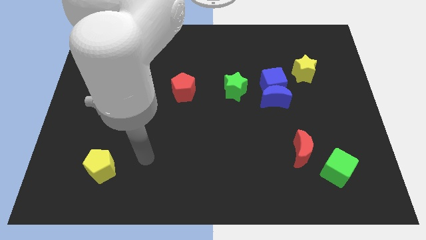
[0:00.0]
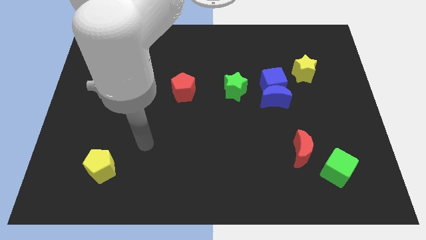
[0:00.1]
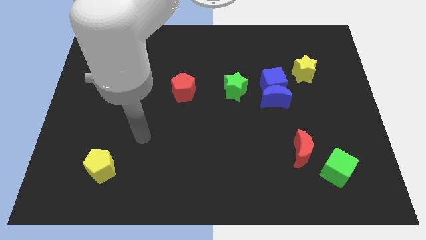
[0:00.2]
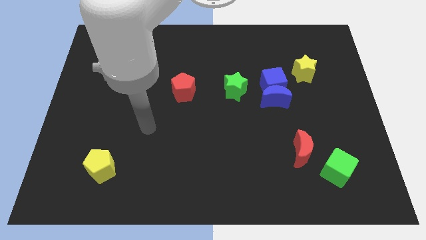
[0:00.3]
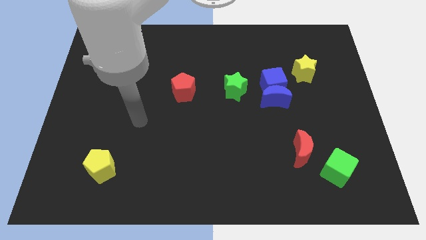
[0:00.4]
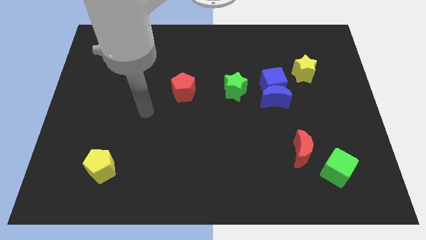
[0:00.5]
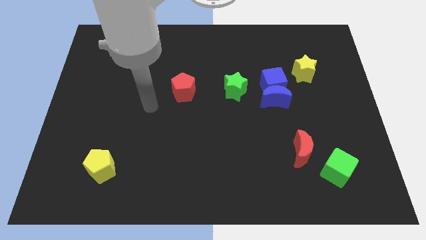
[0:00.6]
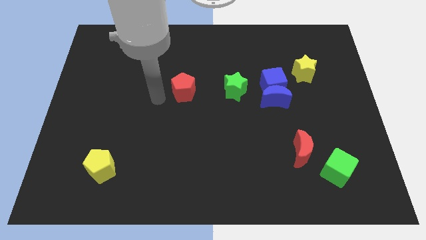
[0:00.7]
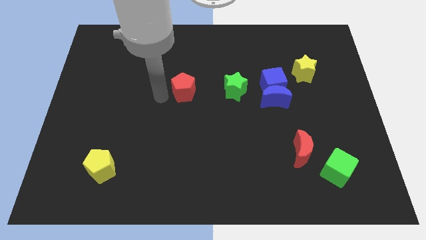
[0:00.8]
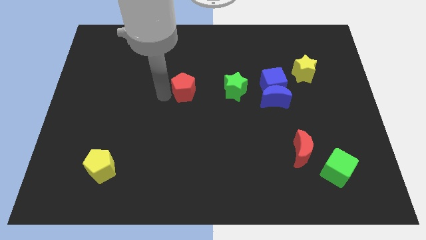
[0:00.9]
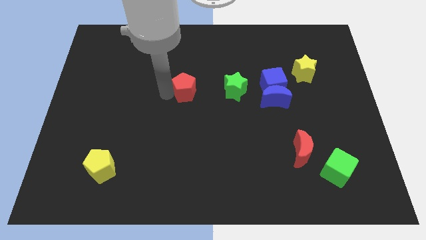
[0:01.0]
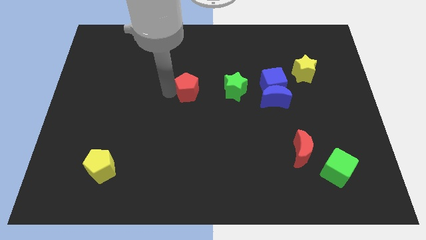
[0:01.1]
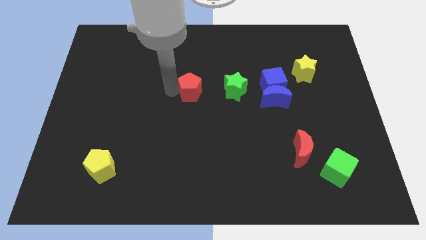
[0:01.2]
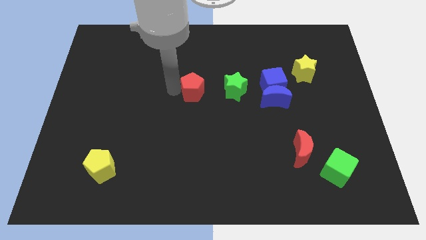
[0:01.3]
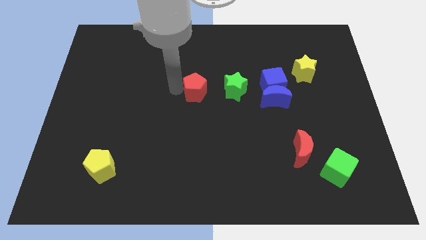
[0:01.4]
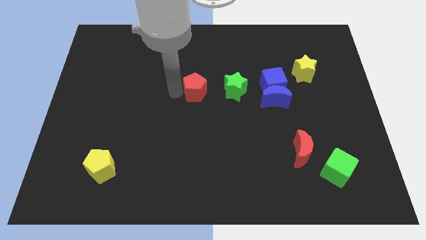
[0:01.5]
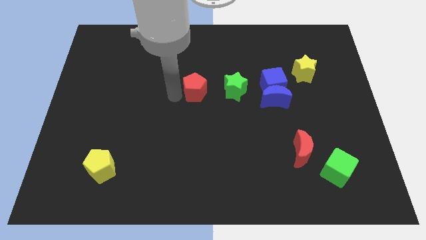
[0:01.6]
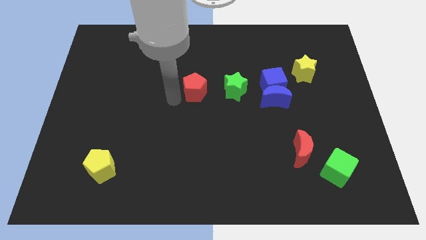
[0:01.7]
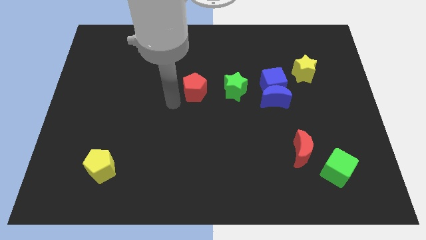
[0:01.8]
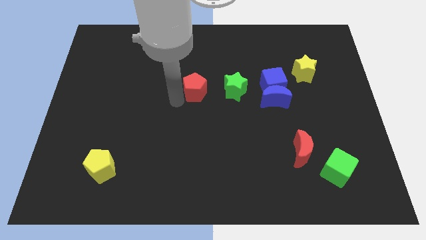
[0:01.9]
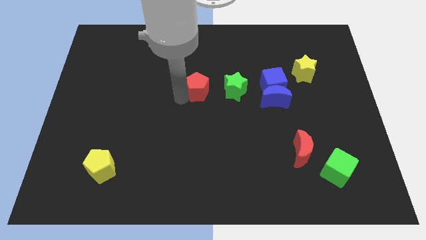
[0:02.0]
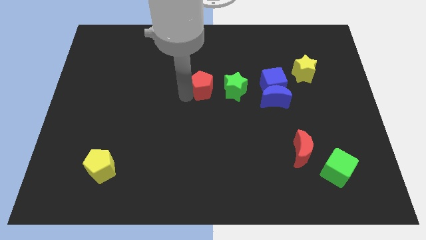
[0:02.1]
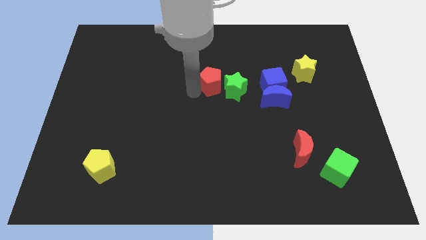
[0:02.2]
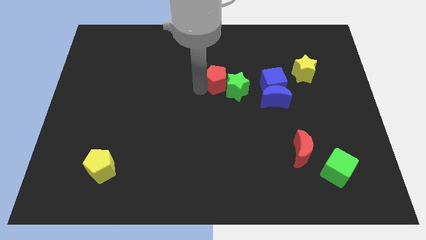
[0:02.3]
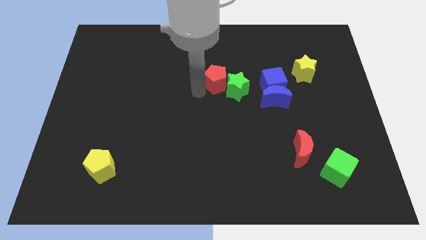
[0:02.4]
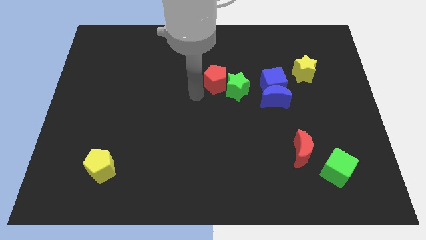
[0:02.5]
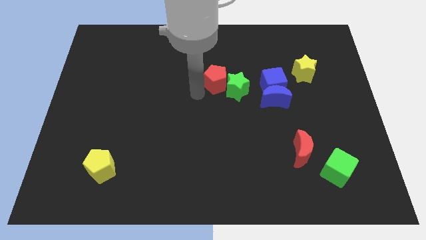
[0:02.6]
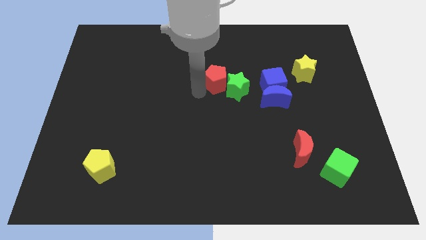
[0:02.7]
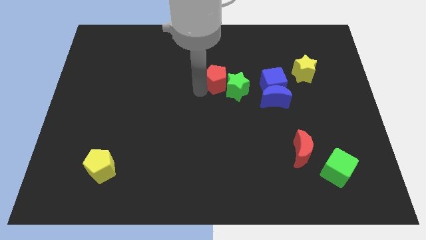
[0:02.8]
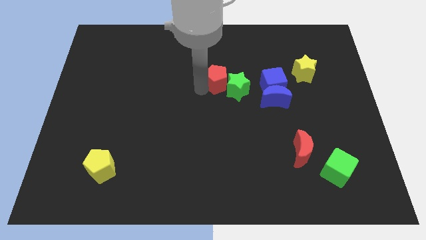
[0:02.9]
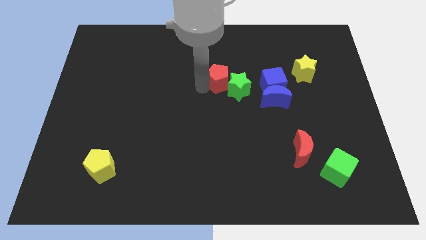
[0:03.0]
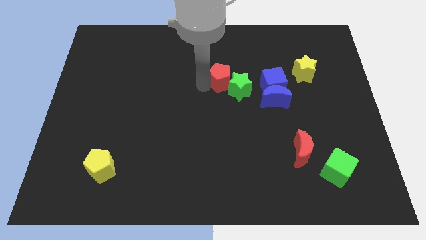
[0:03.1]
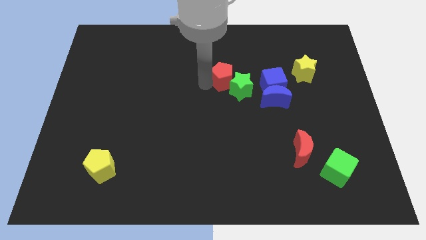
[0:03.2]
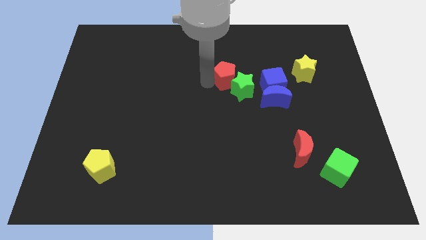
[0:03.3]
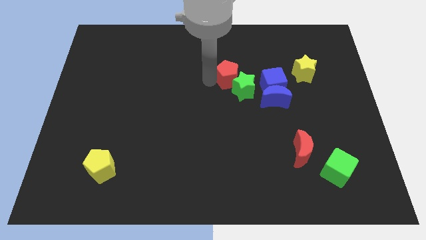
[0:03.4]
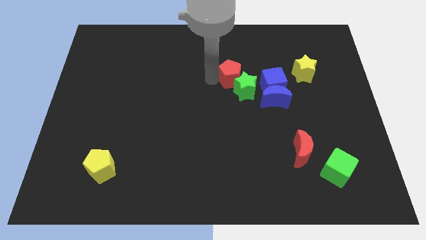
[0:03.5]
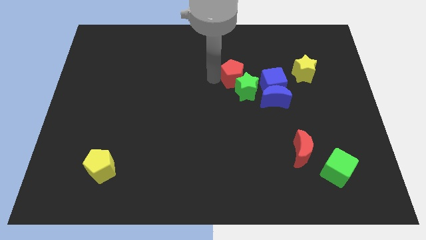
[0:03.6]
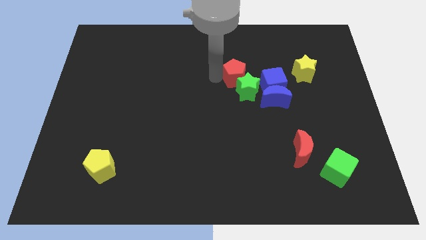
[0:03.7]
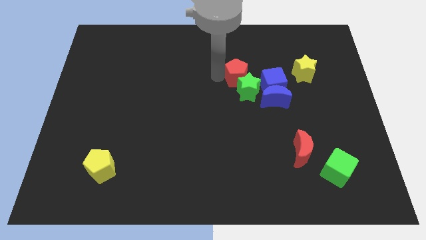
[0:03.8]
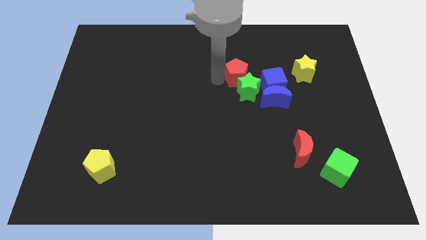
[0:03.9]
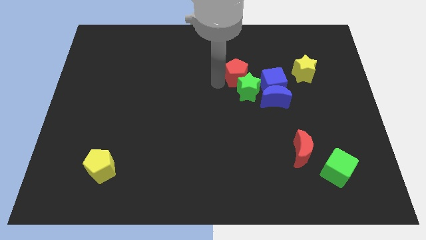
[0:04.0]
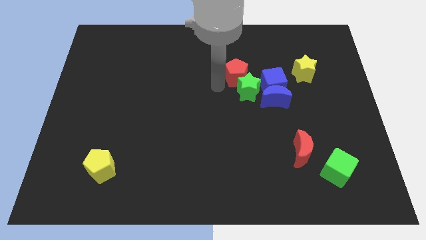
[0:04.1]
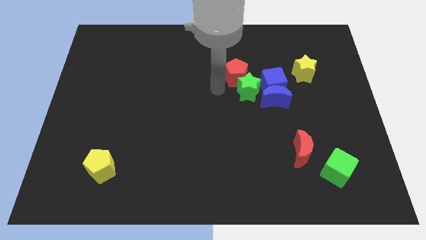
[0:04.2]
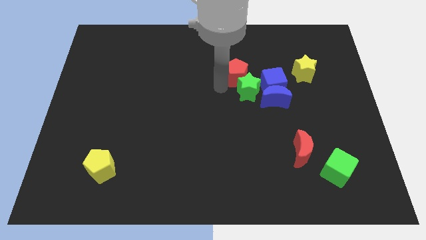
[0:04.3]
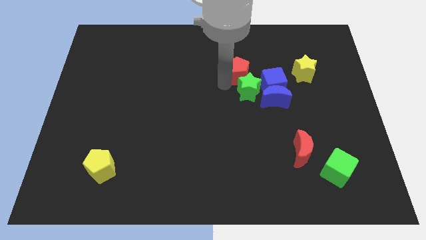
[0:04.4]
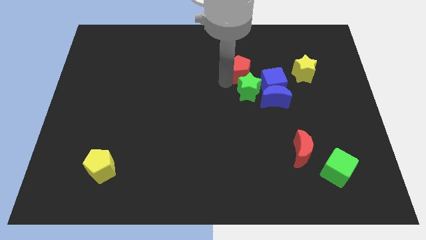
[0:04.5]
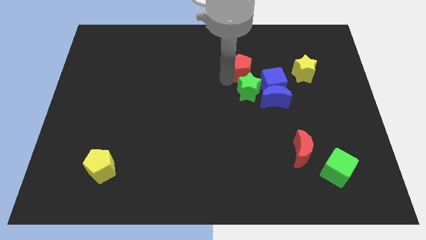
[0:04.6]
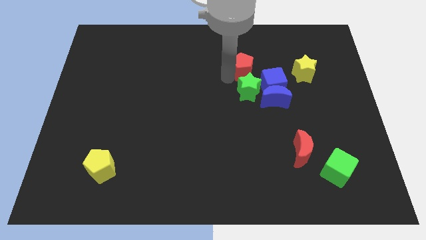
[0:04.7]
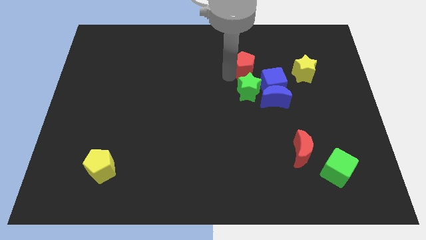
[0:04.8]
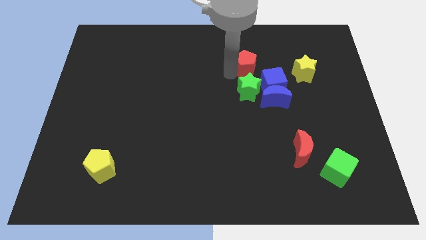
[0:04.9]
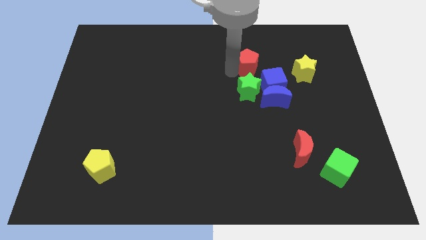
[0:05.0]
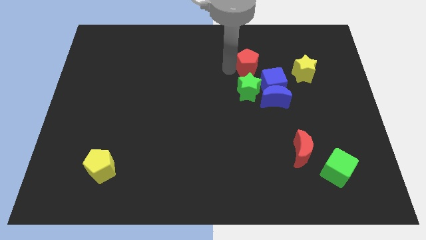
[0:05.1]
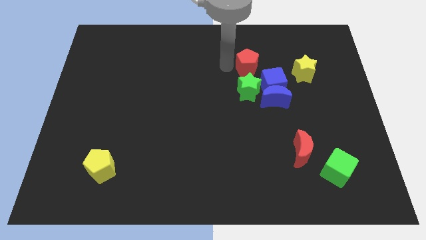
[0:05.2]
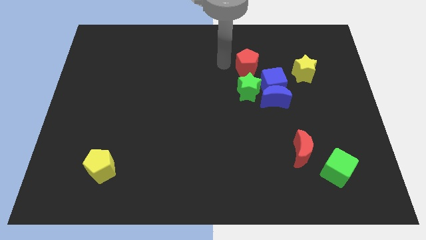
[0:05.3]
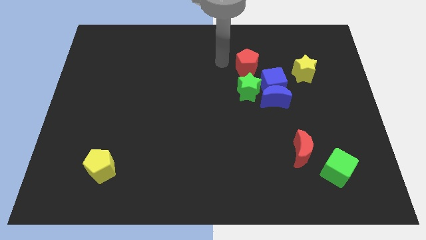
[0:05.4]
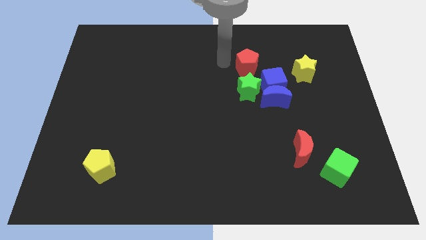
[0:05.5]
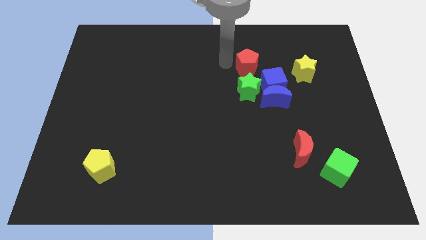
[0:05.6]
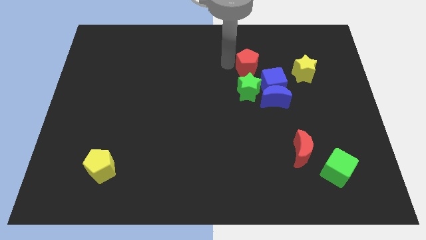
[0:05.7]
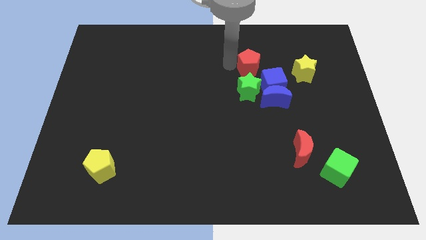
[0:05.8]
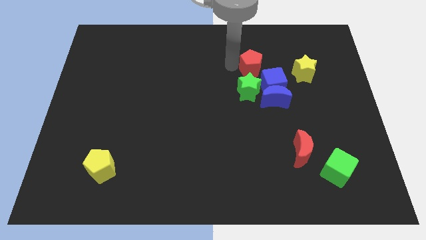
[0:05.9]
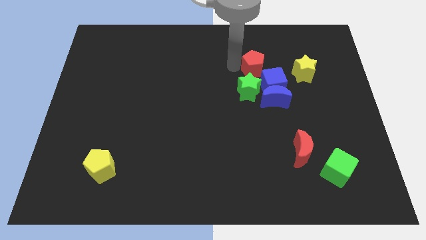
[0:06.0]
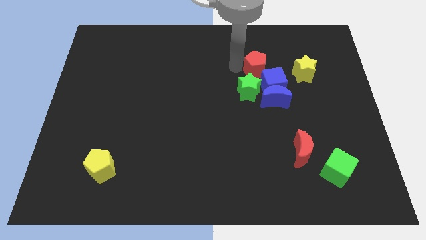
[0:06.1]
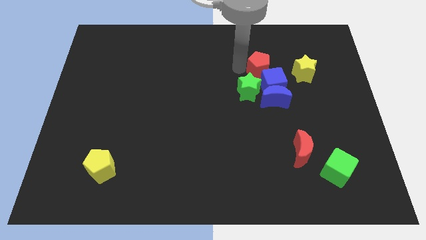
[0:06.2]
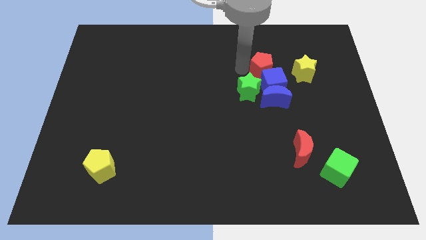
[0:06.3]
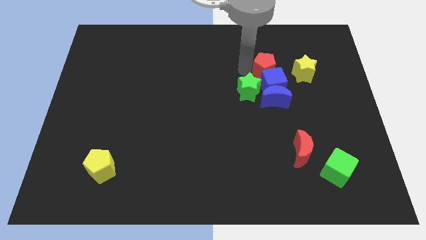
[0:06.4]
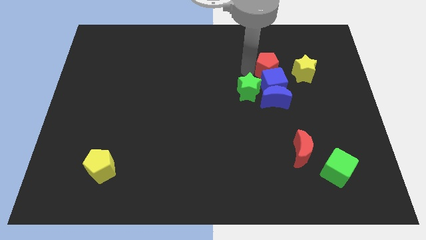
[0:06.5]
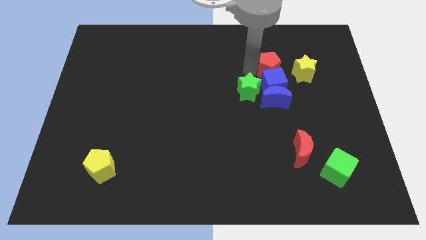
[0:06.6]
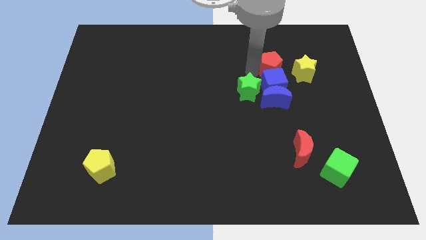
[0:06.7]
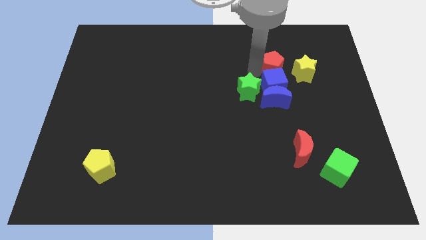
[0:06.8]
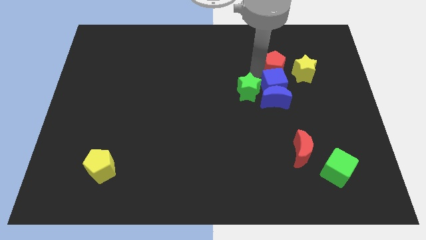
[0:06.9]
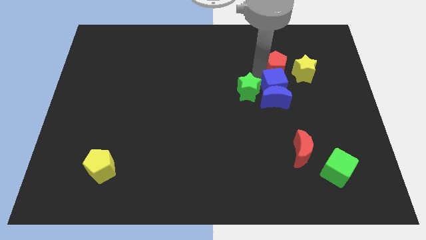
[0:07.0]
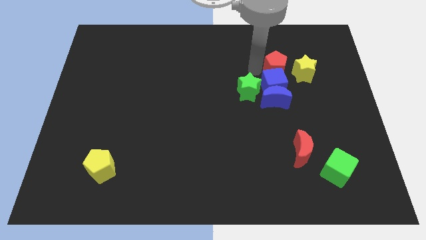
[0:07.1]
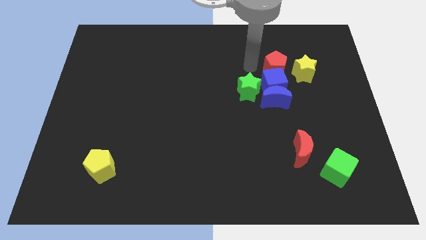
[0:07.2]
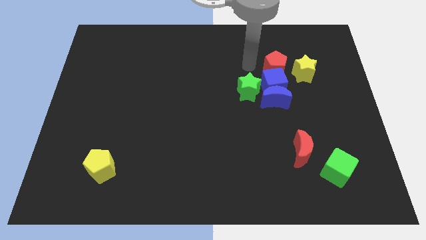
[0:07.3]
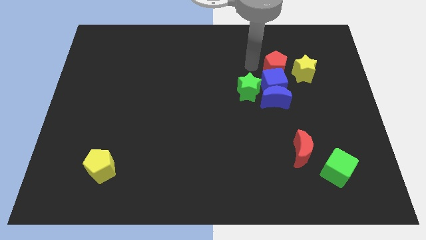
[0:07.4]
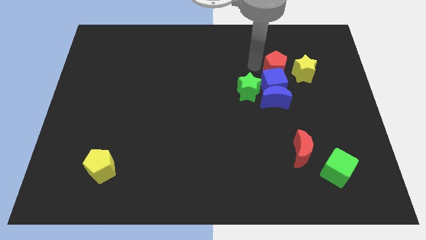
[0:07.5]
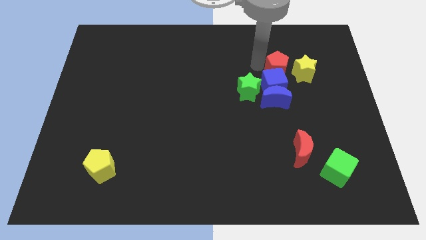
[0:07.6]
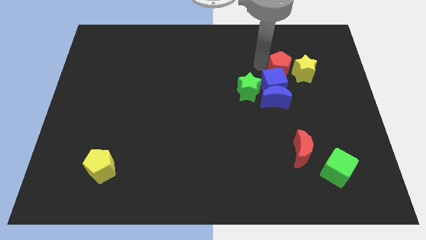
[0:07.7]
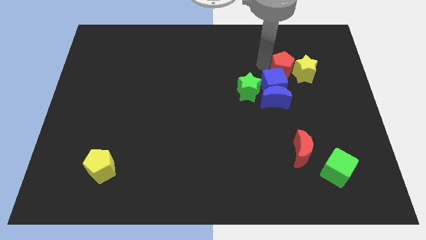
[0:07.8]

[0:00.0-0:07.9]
slide the red pentagon next to the yellow star

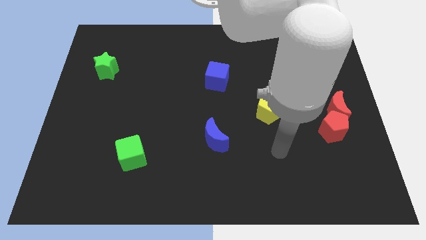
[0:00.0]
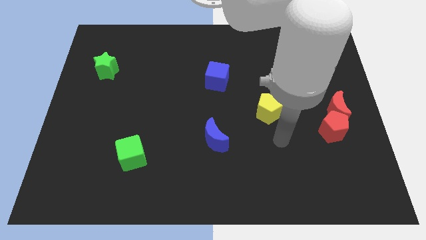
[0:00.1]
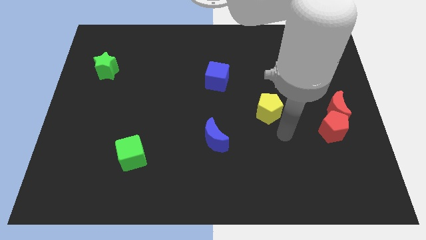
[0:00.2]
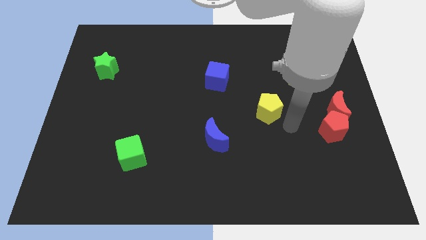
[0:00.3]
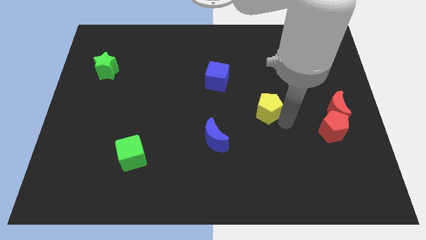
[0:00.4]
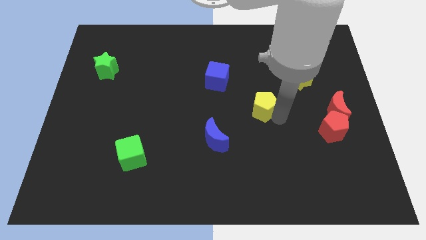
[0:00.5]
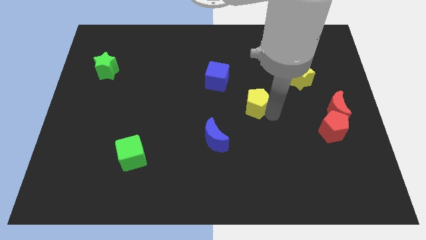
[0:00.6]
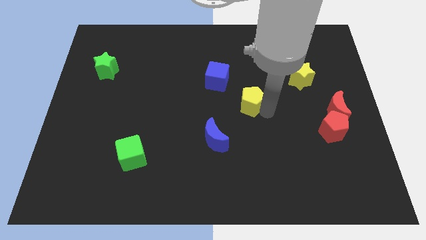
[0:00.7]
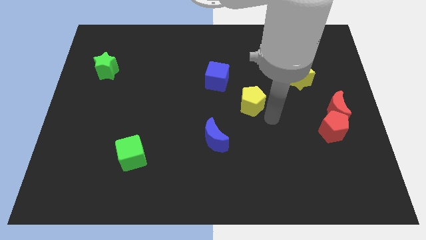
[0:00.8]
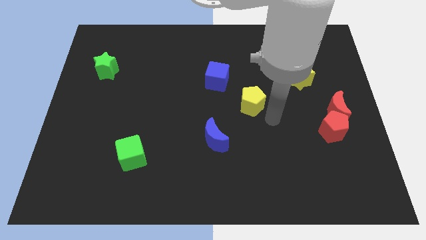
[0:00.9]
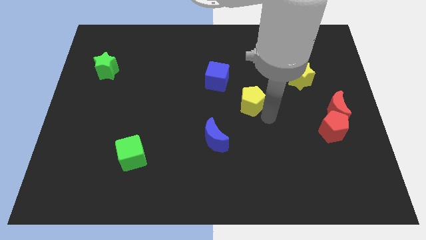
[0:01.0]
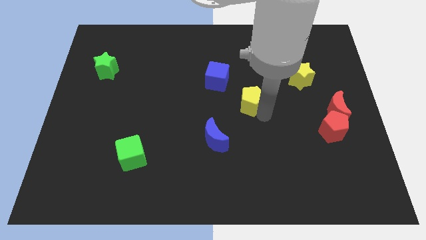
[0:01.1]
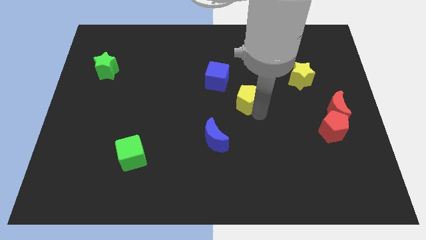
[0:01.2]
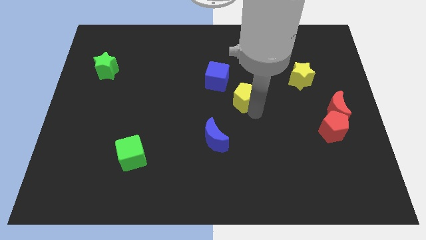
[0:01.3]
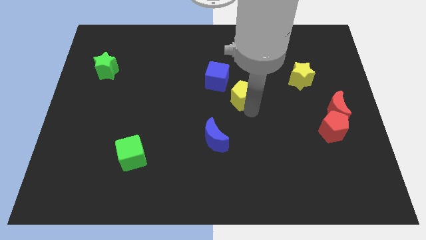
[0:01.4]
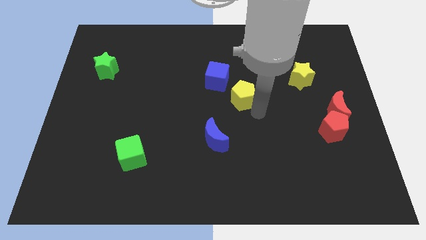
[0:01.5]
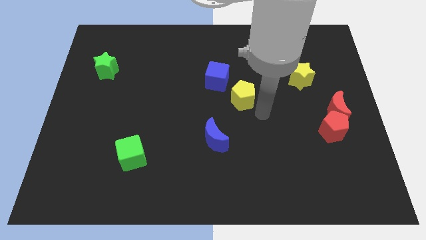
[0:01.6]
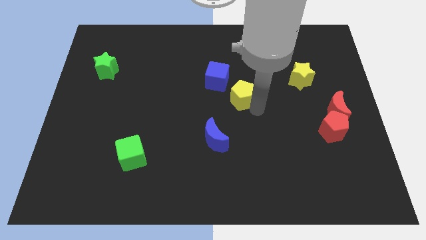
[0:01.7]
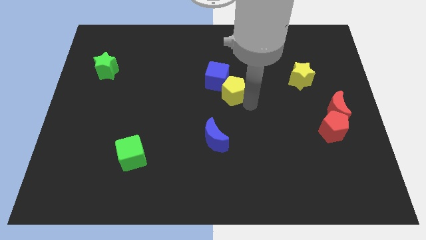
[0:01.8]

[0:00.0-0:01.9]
slide the yellow pentagon next to the blue cube
